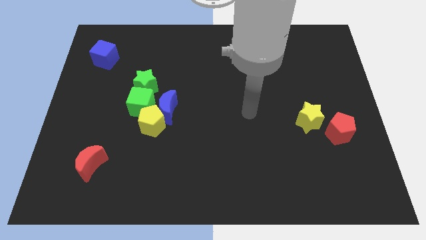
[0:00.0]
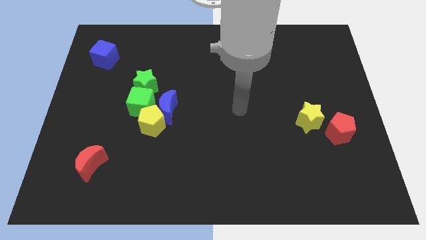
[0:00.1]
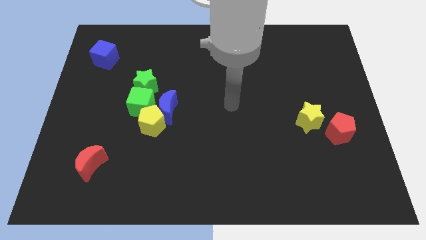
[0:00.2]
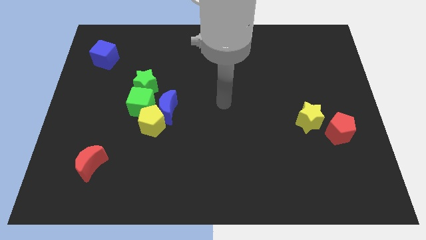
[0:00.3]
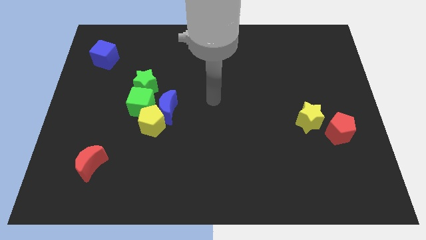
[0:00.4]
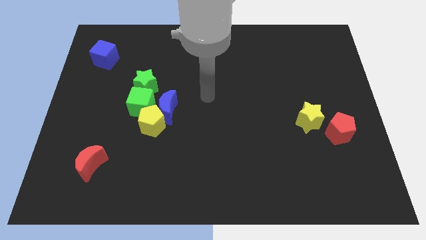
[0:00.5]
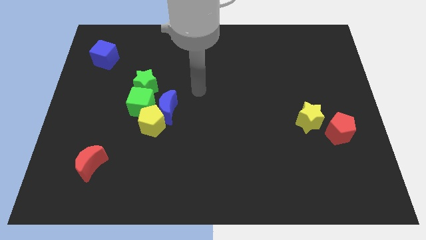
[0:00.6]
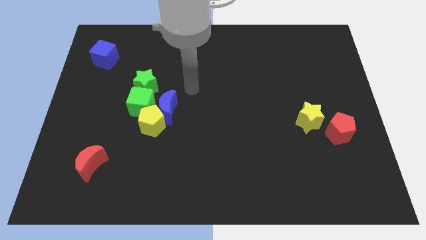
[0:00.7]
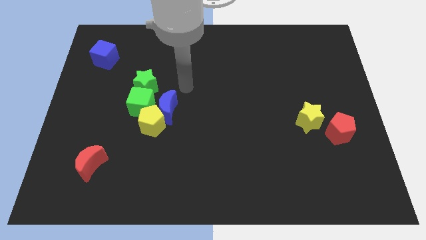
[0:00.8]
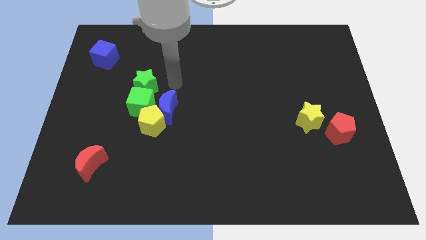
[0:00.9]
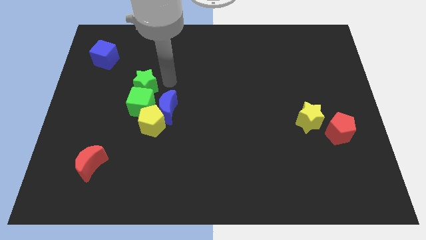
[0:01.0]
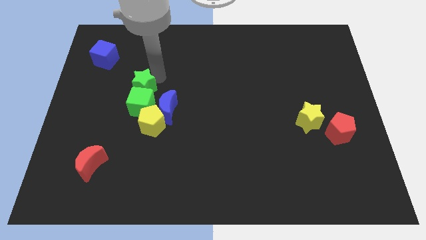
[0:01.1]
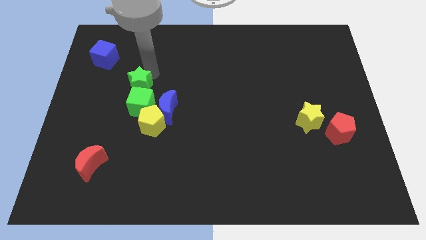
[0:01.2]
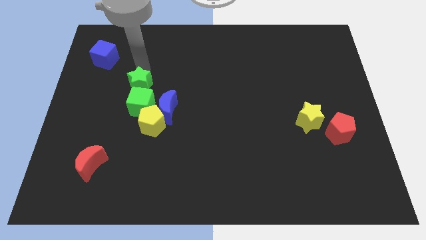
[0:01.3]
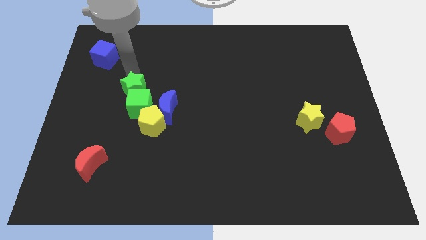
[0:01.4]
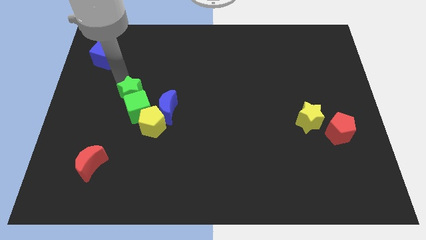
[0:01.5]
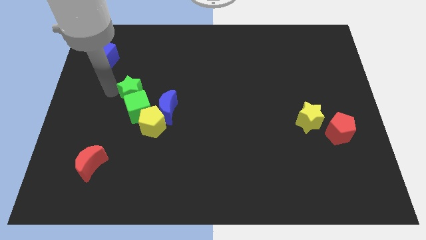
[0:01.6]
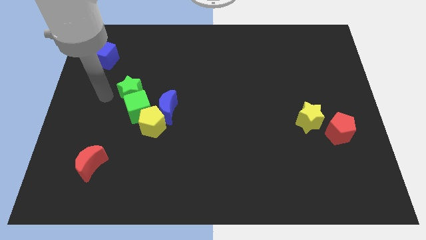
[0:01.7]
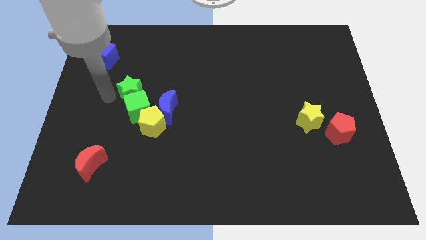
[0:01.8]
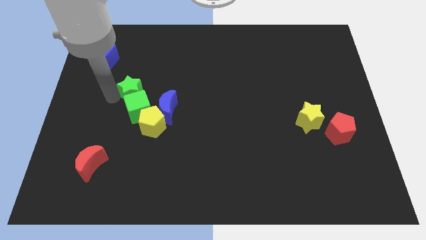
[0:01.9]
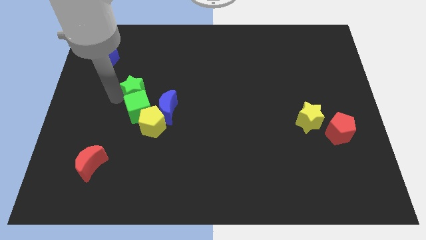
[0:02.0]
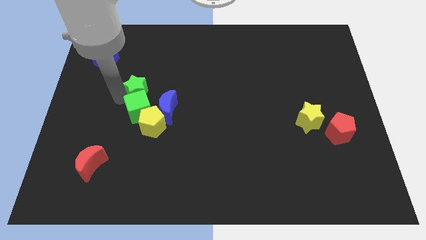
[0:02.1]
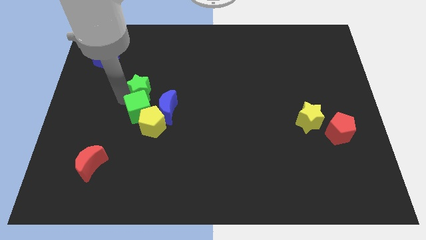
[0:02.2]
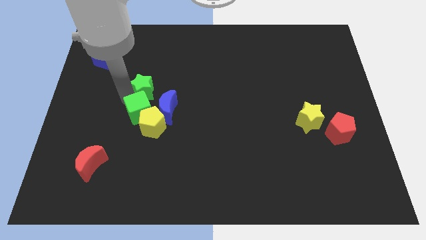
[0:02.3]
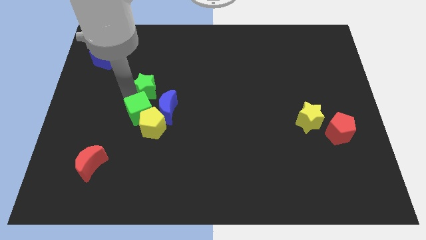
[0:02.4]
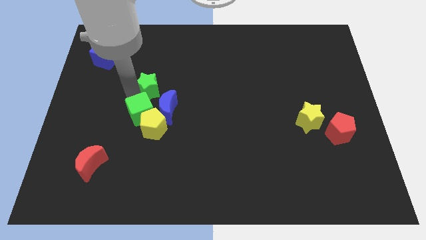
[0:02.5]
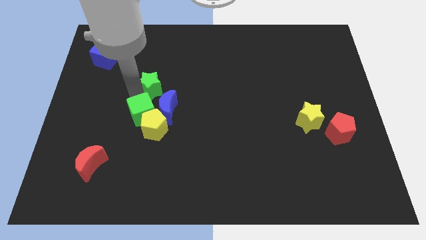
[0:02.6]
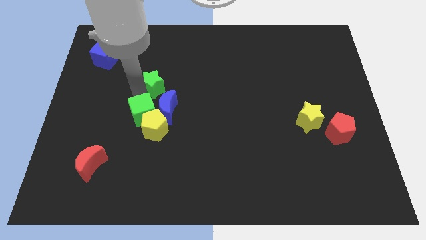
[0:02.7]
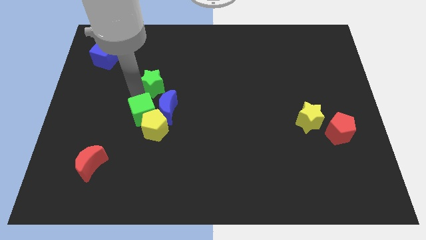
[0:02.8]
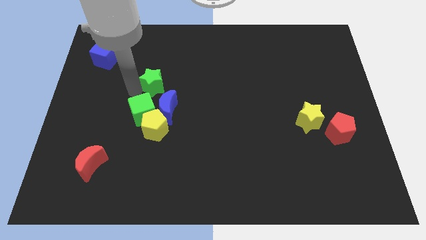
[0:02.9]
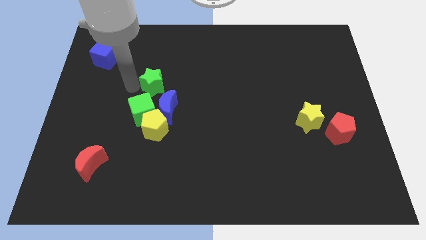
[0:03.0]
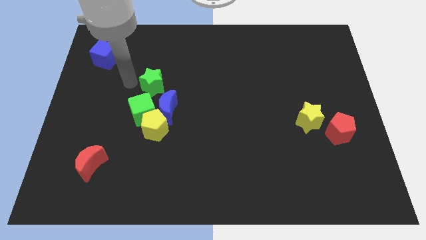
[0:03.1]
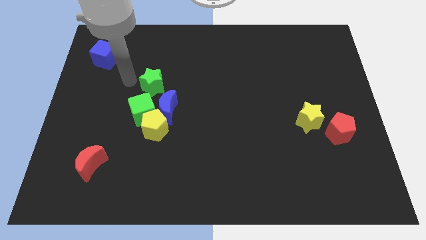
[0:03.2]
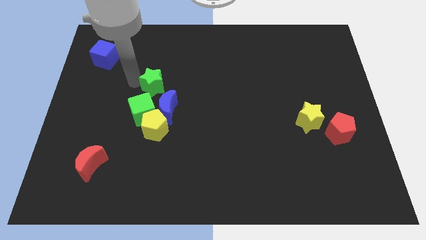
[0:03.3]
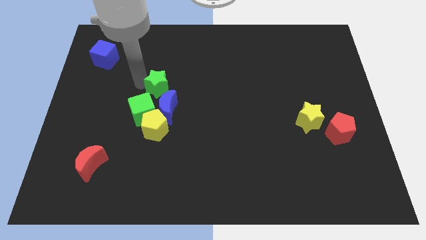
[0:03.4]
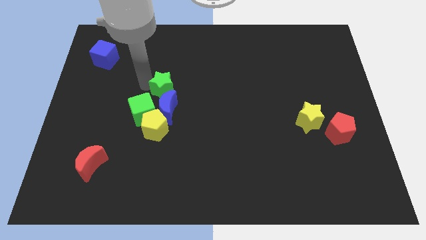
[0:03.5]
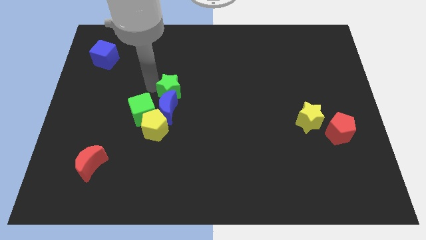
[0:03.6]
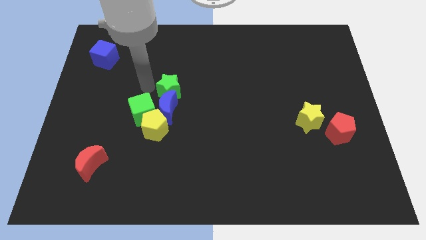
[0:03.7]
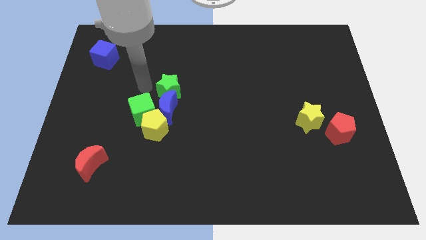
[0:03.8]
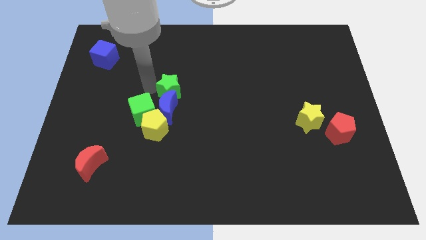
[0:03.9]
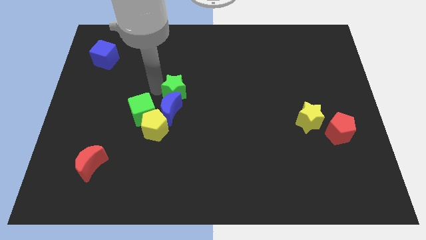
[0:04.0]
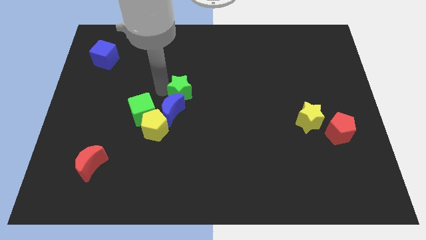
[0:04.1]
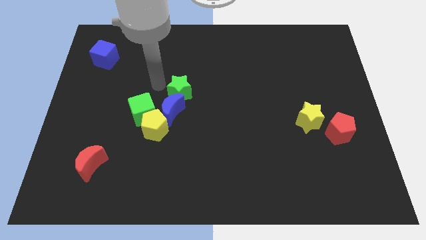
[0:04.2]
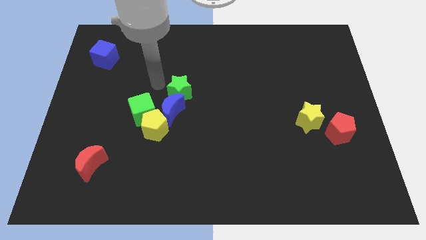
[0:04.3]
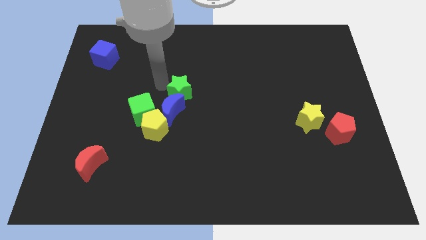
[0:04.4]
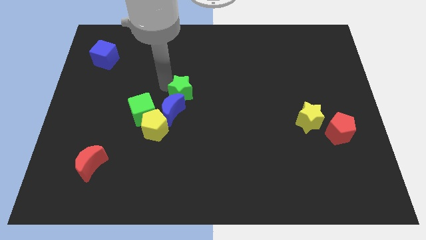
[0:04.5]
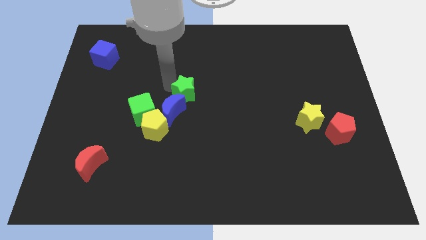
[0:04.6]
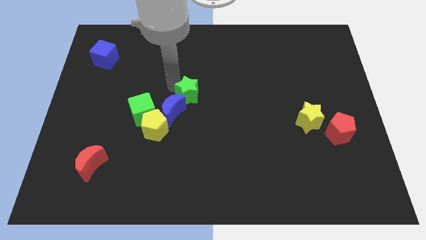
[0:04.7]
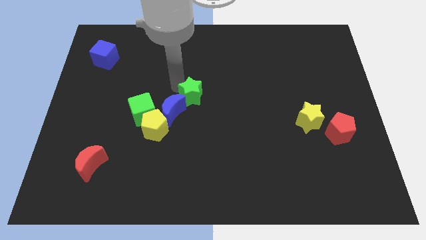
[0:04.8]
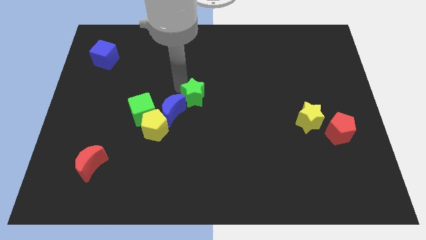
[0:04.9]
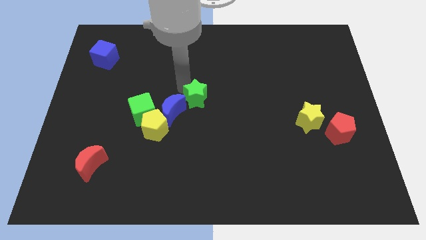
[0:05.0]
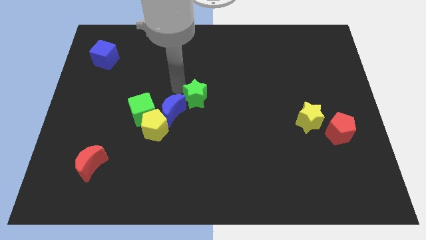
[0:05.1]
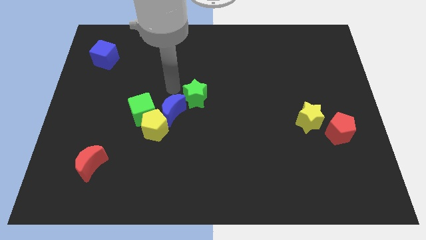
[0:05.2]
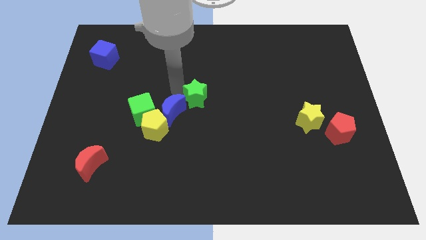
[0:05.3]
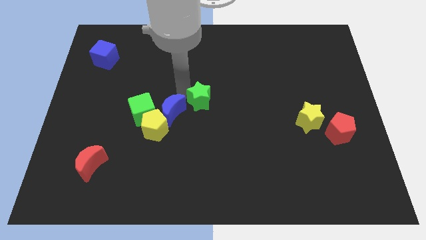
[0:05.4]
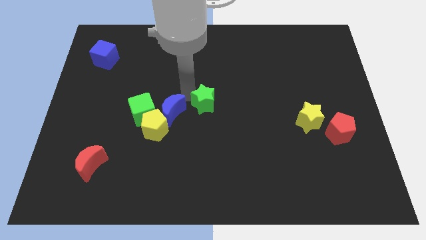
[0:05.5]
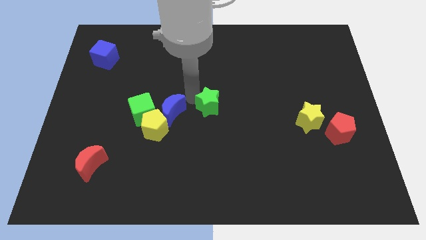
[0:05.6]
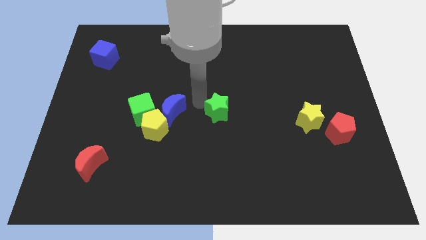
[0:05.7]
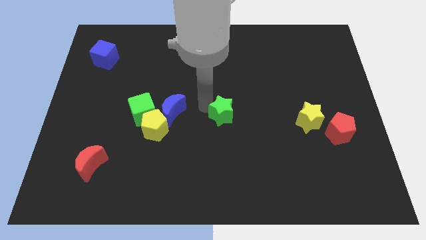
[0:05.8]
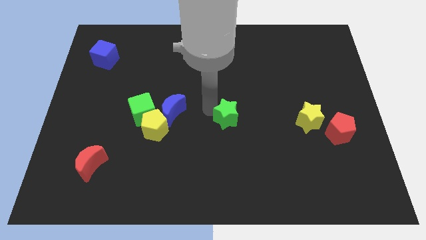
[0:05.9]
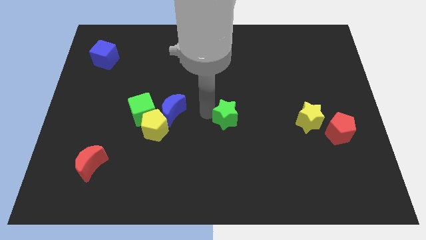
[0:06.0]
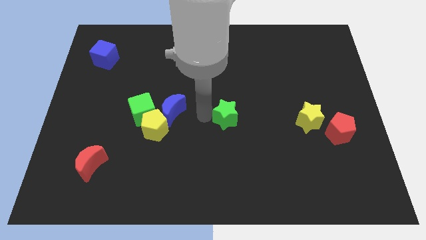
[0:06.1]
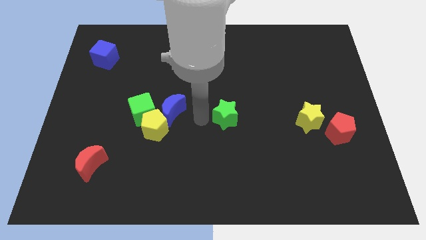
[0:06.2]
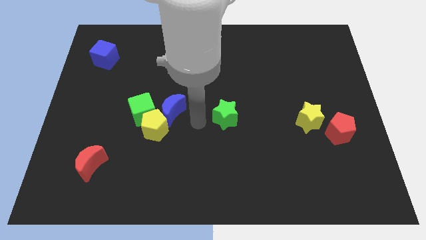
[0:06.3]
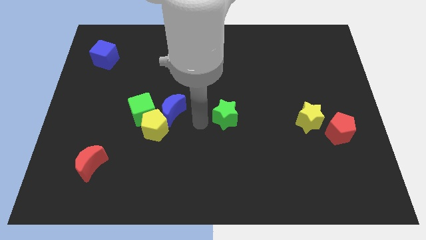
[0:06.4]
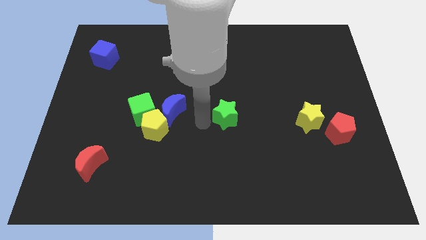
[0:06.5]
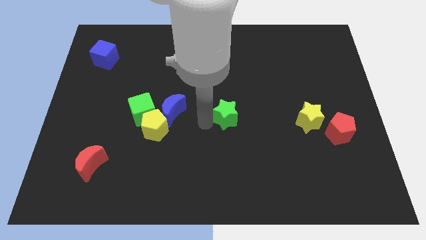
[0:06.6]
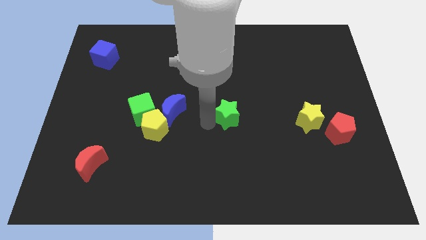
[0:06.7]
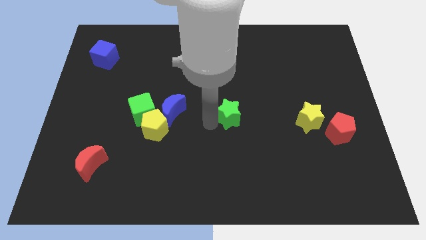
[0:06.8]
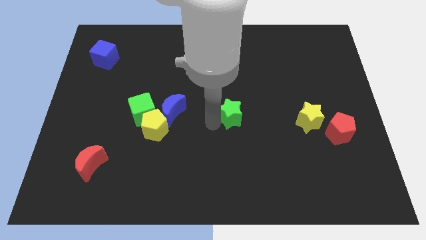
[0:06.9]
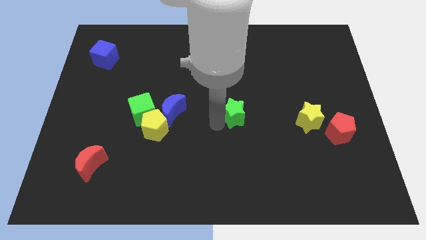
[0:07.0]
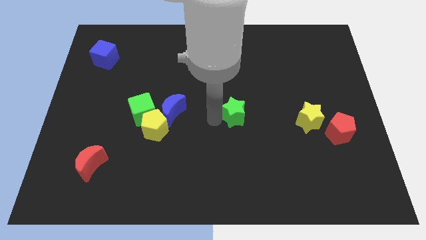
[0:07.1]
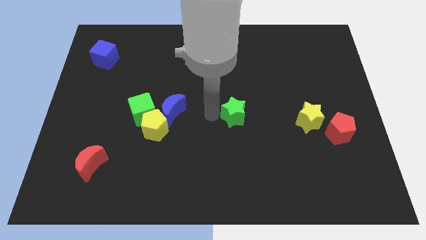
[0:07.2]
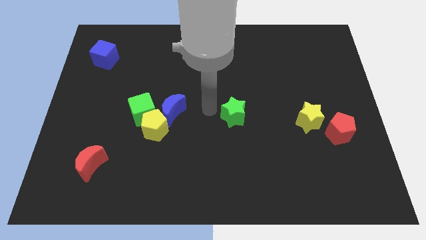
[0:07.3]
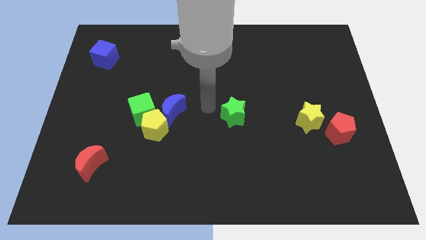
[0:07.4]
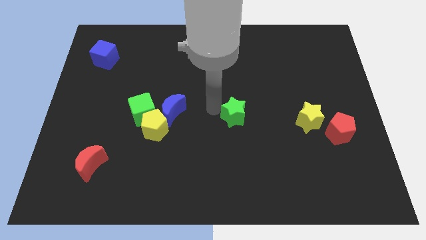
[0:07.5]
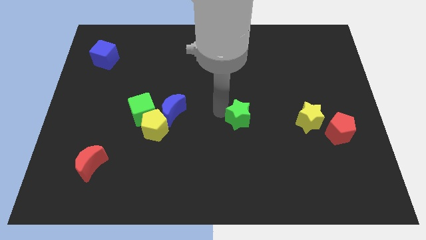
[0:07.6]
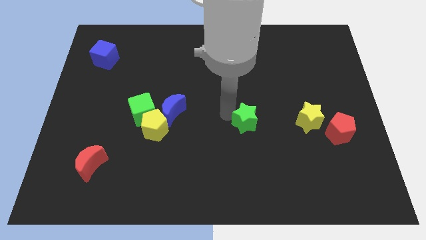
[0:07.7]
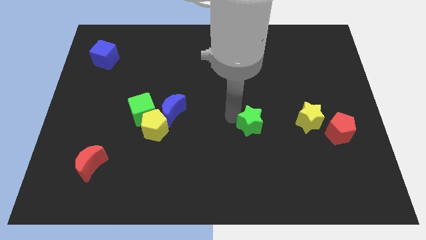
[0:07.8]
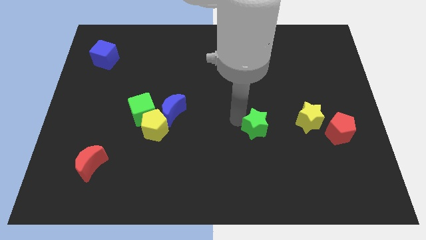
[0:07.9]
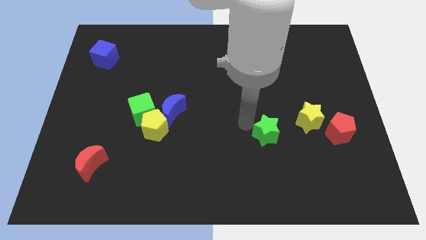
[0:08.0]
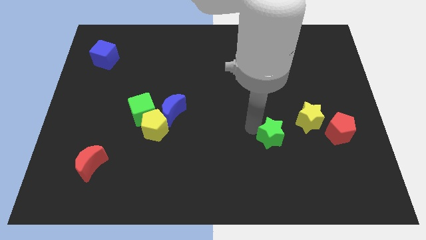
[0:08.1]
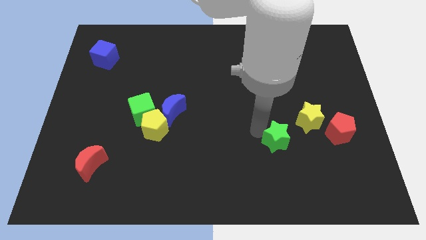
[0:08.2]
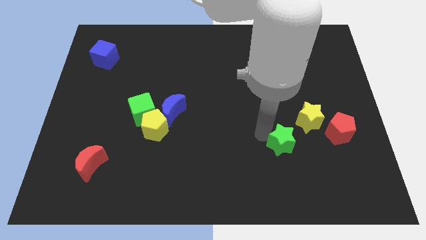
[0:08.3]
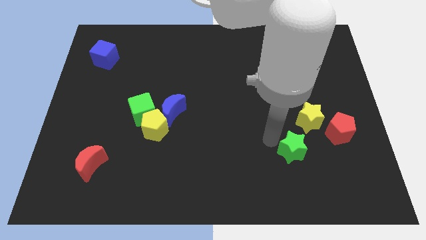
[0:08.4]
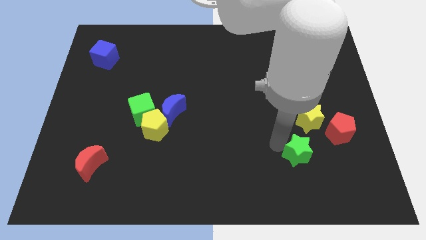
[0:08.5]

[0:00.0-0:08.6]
slide the green star to the bottom left side of the red pentagon
